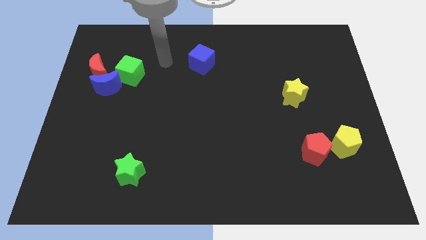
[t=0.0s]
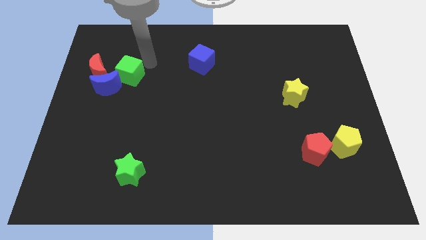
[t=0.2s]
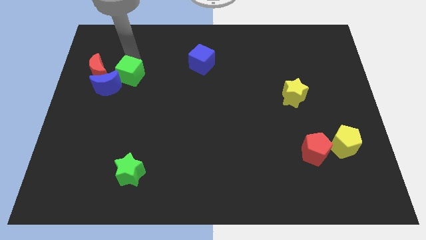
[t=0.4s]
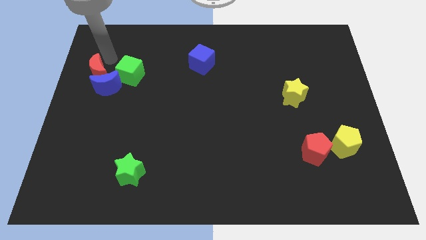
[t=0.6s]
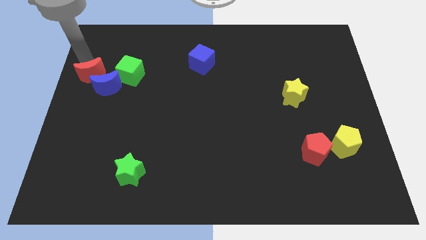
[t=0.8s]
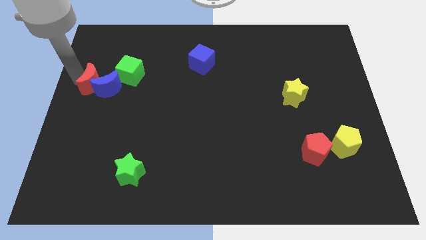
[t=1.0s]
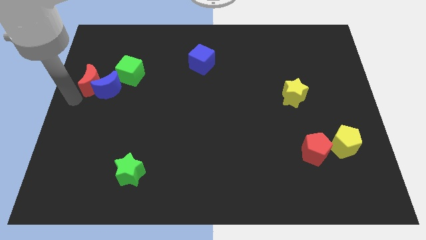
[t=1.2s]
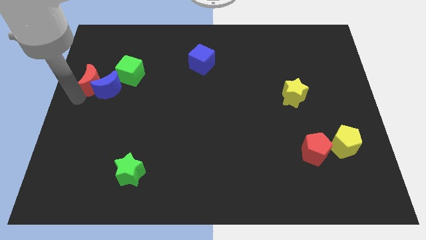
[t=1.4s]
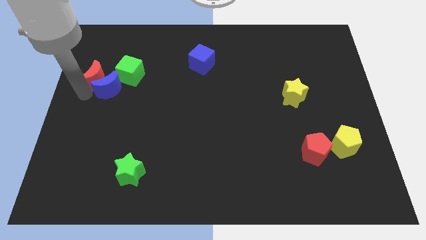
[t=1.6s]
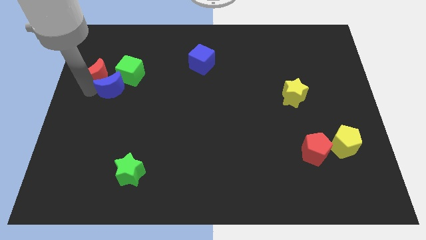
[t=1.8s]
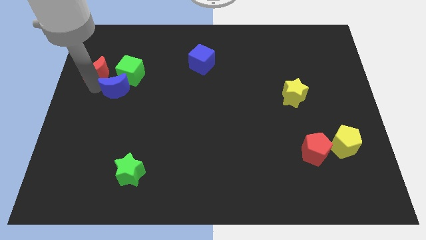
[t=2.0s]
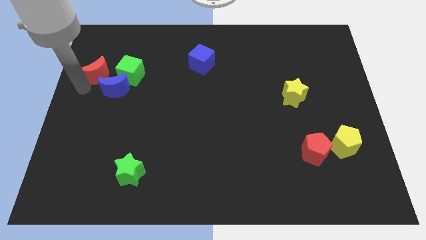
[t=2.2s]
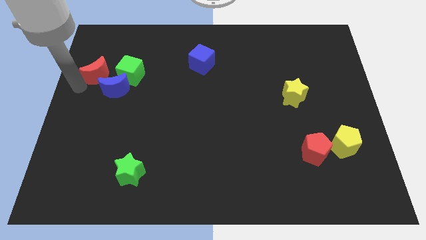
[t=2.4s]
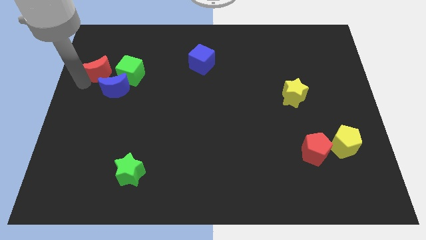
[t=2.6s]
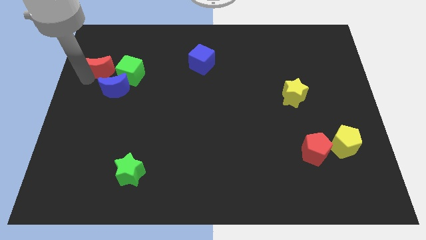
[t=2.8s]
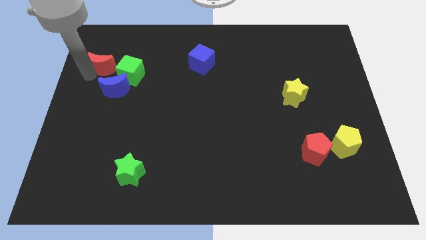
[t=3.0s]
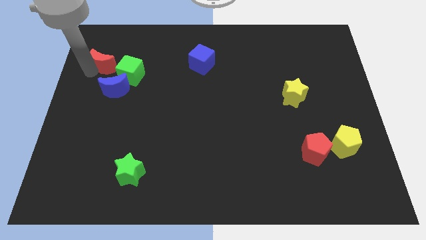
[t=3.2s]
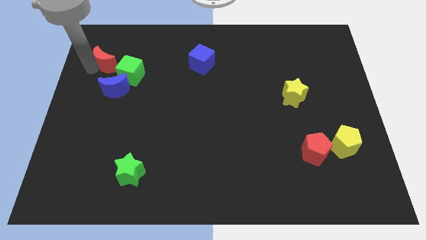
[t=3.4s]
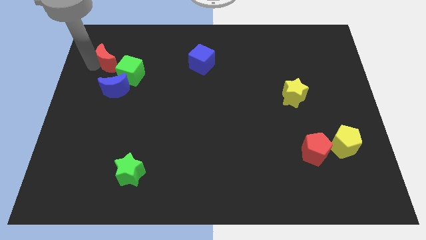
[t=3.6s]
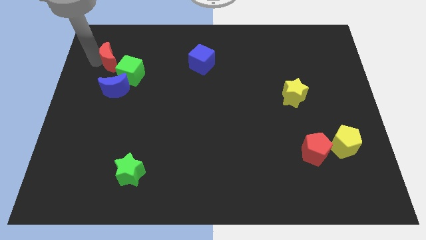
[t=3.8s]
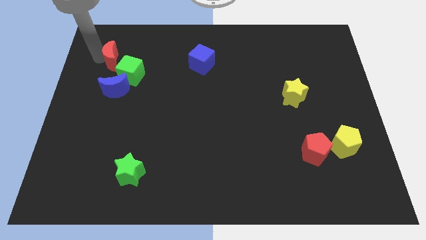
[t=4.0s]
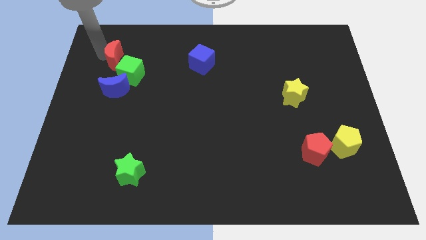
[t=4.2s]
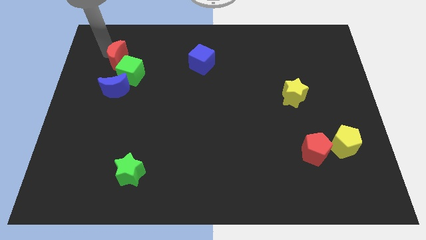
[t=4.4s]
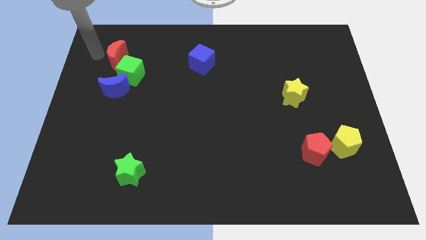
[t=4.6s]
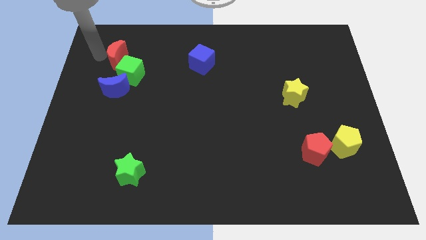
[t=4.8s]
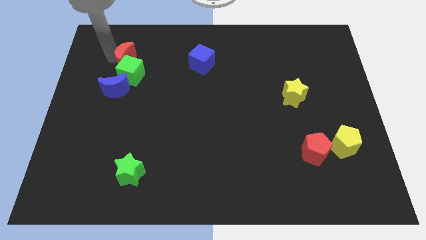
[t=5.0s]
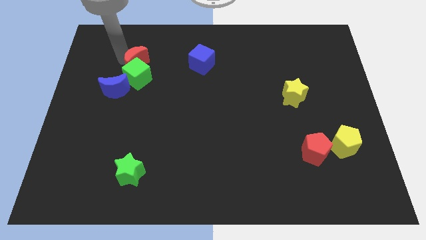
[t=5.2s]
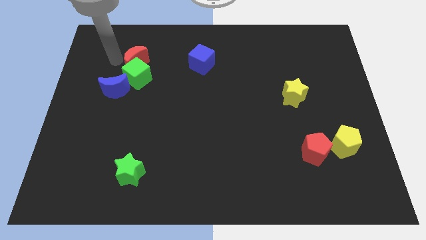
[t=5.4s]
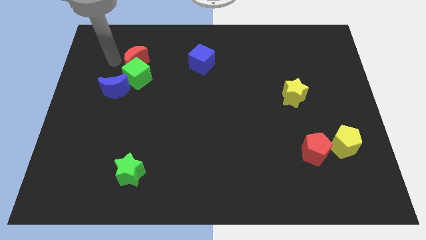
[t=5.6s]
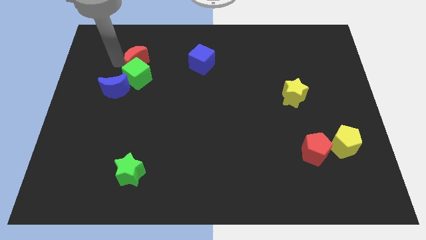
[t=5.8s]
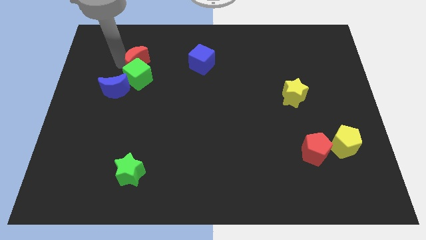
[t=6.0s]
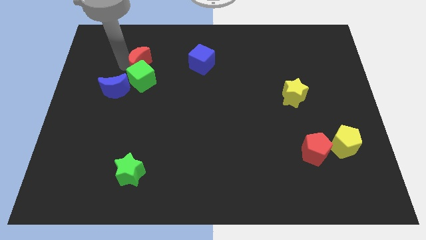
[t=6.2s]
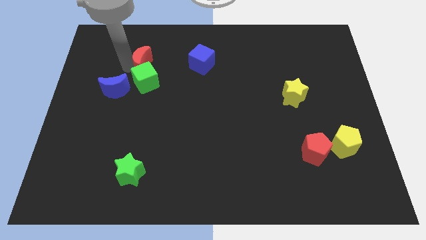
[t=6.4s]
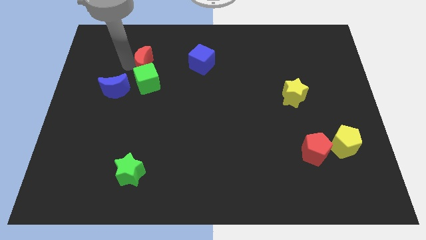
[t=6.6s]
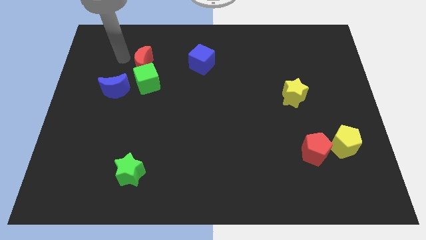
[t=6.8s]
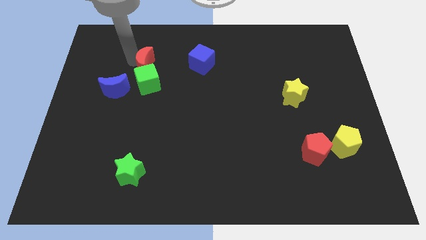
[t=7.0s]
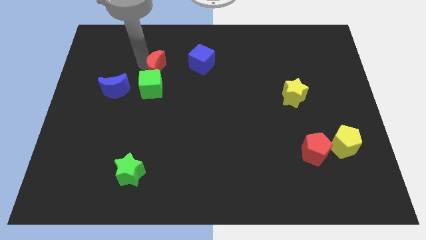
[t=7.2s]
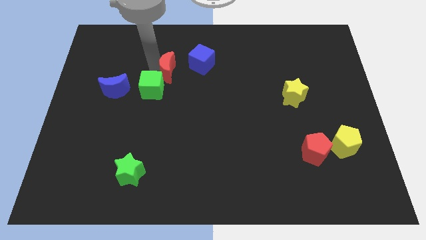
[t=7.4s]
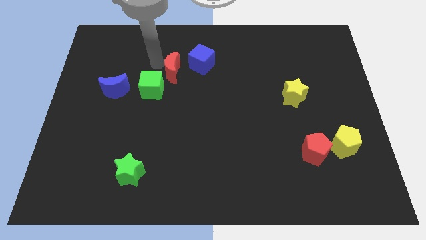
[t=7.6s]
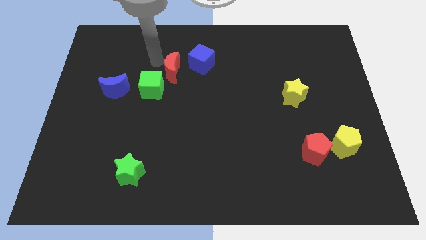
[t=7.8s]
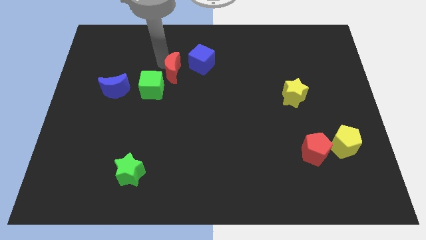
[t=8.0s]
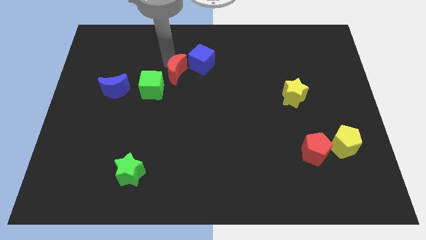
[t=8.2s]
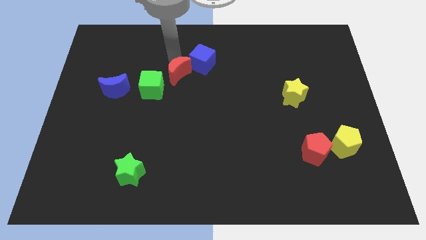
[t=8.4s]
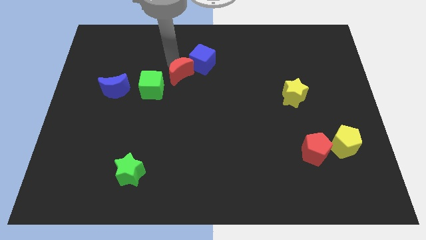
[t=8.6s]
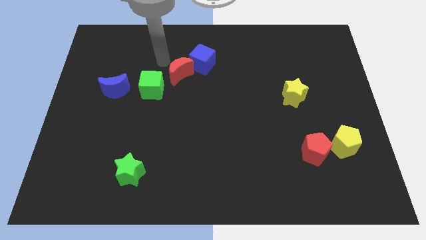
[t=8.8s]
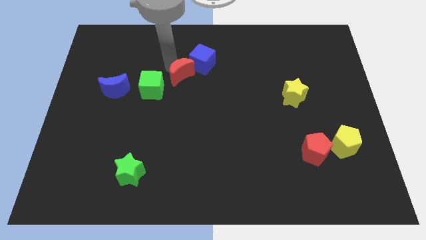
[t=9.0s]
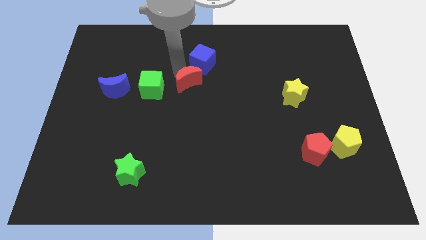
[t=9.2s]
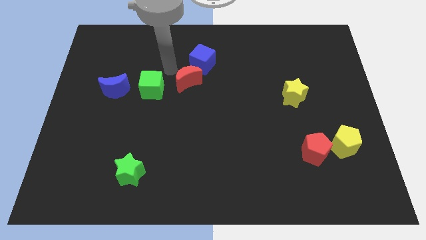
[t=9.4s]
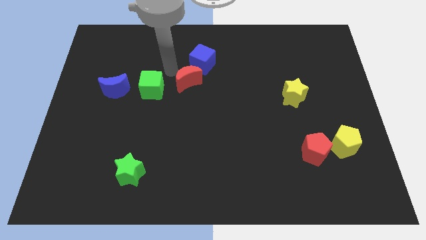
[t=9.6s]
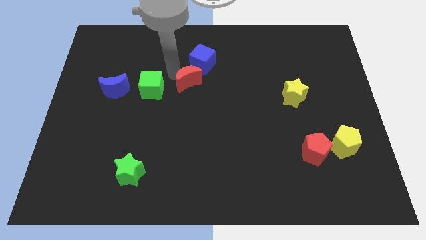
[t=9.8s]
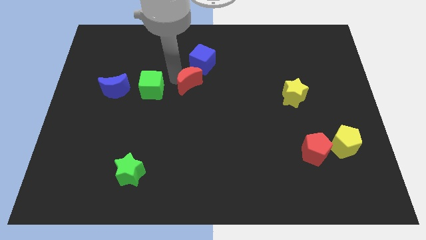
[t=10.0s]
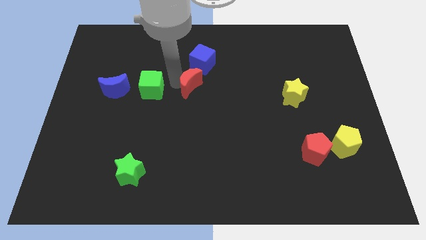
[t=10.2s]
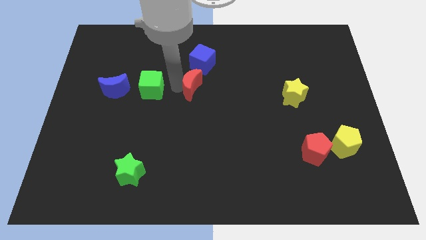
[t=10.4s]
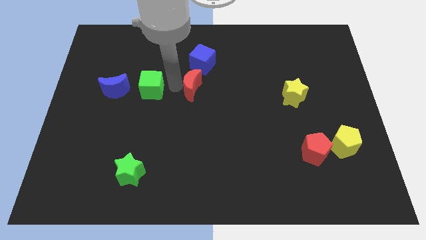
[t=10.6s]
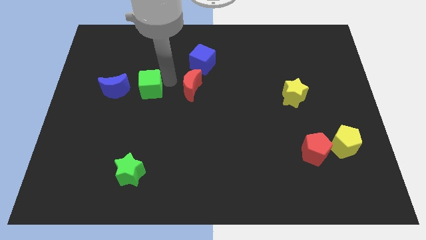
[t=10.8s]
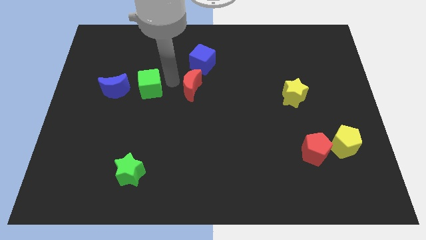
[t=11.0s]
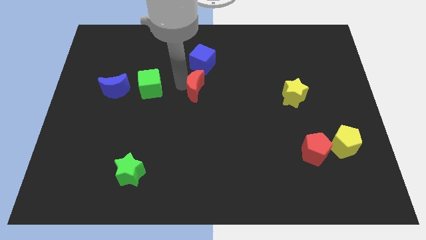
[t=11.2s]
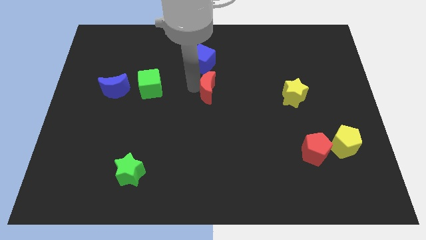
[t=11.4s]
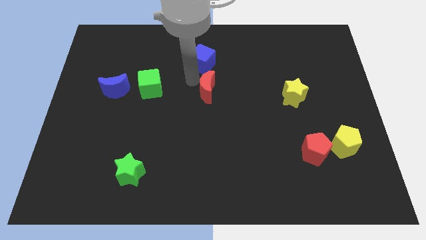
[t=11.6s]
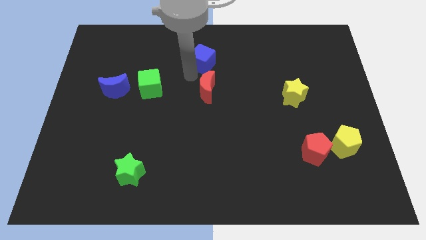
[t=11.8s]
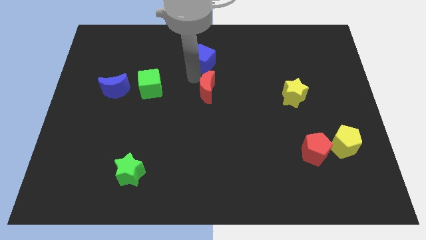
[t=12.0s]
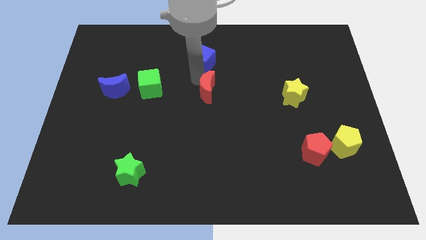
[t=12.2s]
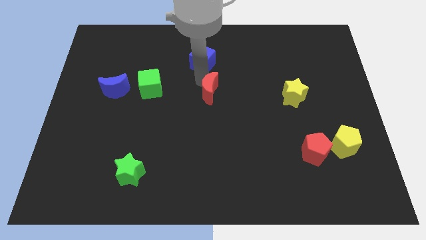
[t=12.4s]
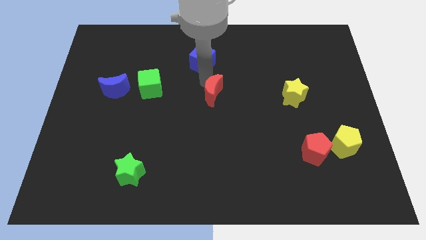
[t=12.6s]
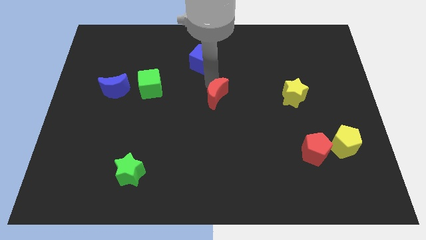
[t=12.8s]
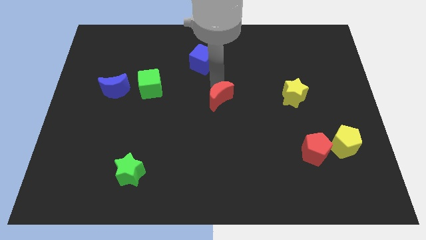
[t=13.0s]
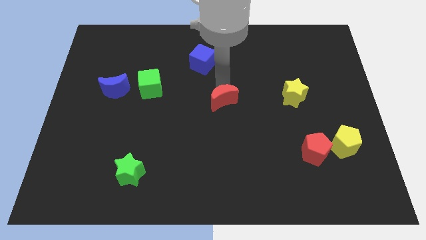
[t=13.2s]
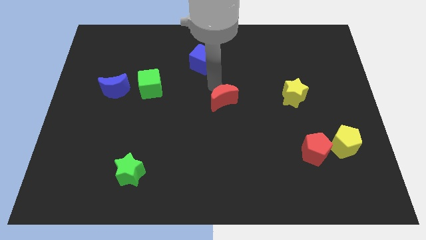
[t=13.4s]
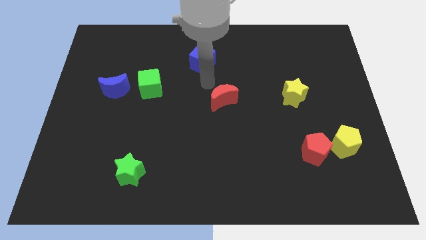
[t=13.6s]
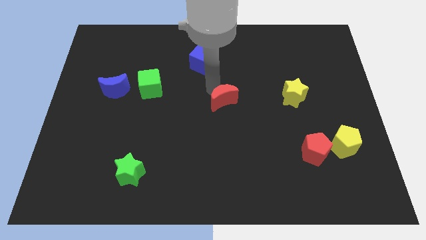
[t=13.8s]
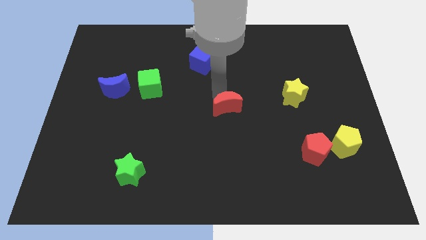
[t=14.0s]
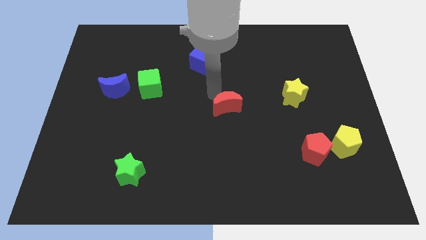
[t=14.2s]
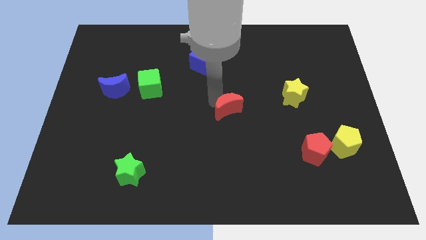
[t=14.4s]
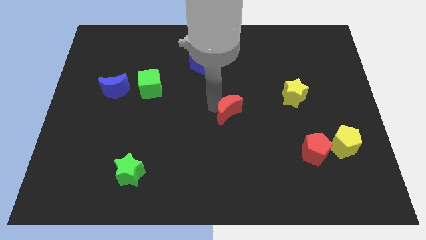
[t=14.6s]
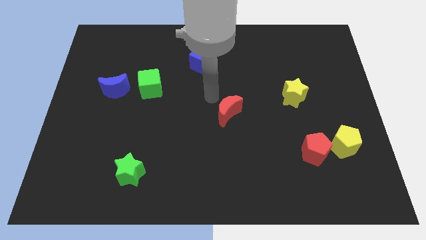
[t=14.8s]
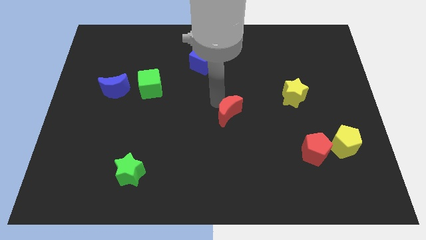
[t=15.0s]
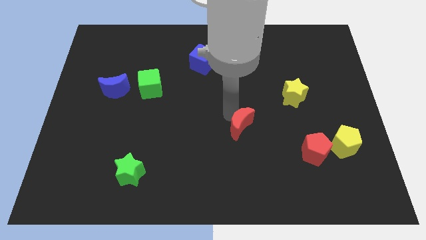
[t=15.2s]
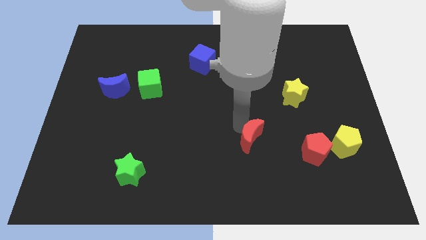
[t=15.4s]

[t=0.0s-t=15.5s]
slide the red moon left of the red pentagon
